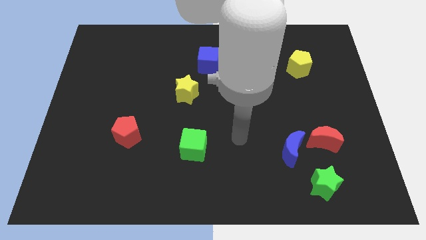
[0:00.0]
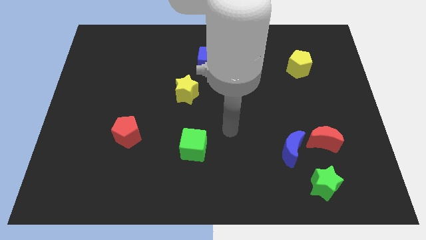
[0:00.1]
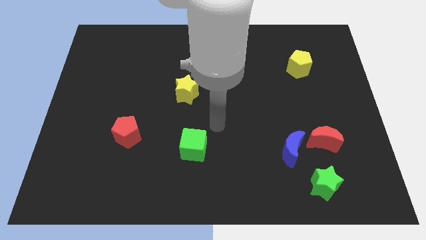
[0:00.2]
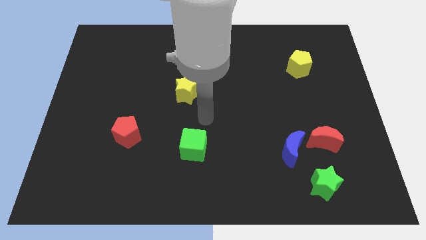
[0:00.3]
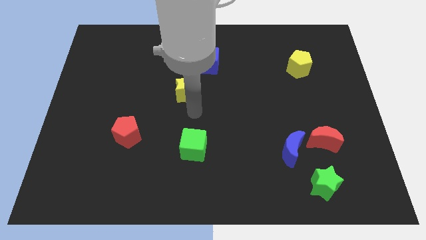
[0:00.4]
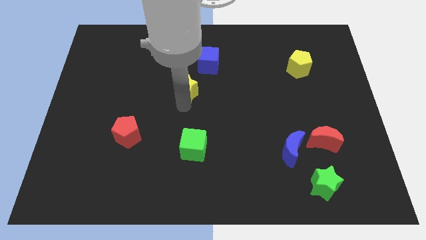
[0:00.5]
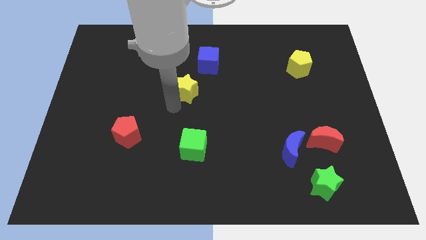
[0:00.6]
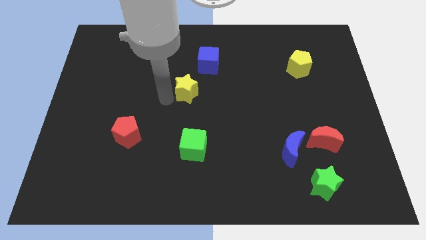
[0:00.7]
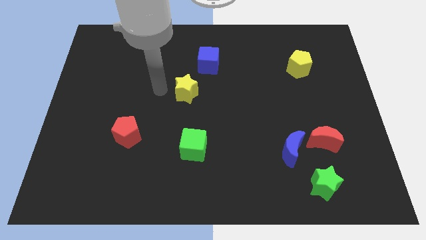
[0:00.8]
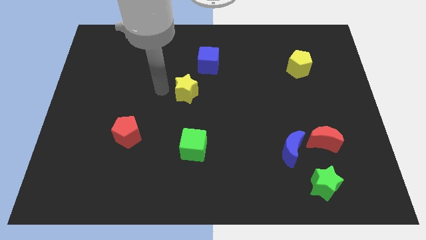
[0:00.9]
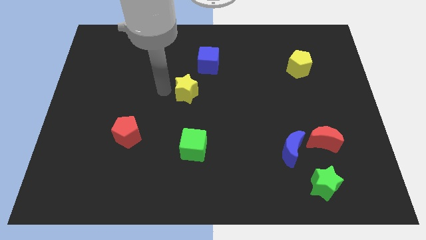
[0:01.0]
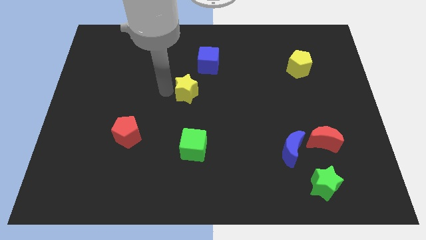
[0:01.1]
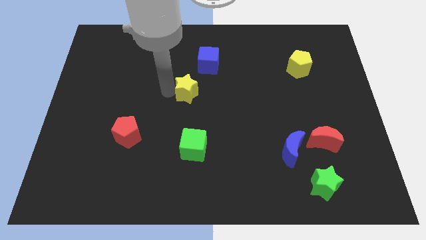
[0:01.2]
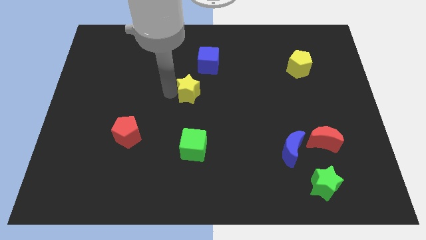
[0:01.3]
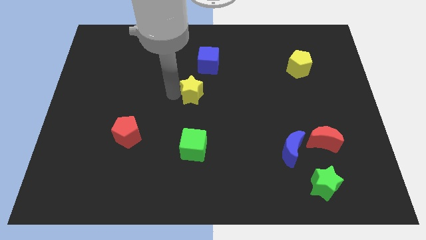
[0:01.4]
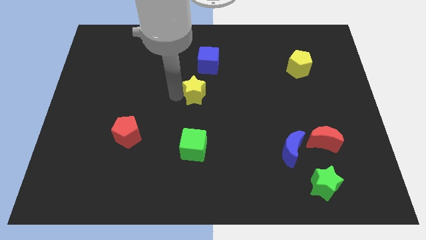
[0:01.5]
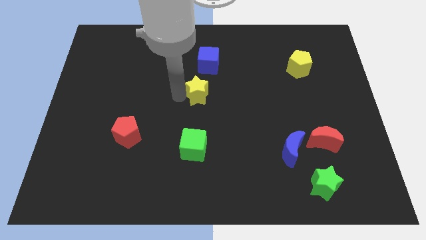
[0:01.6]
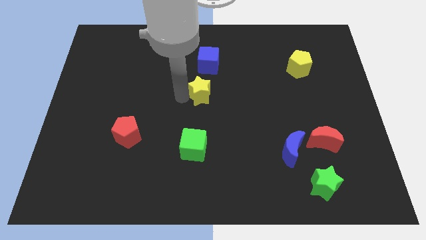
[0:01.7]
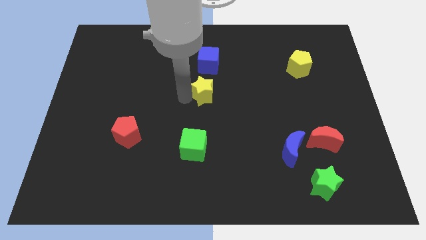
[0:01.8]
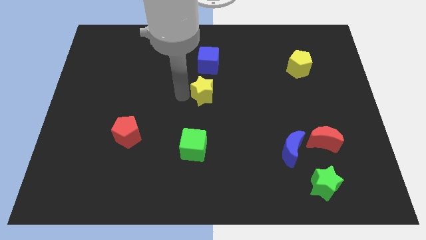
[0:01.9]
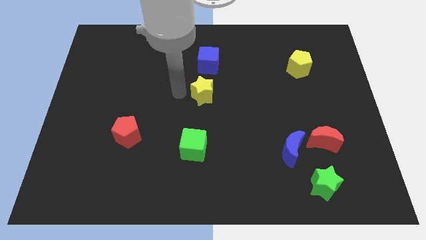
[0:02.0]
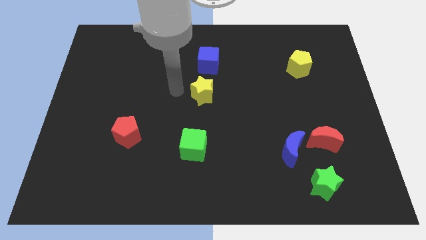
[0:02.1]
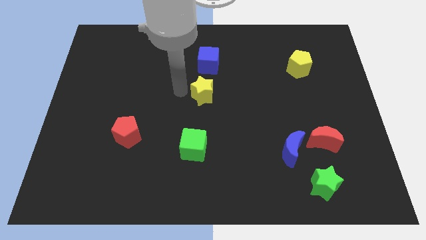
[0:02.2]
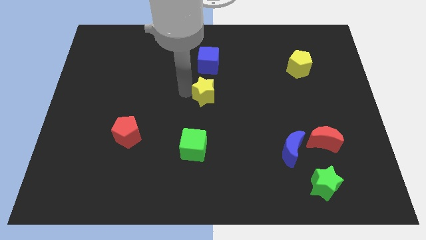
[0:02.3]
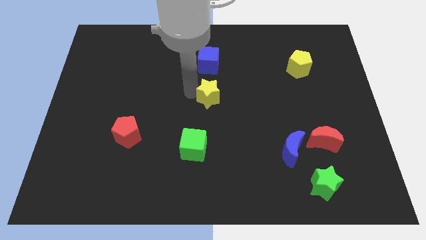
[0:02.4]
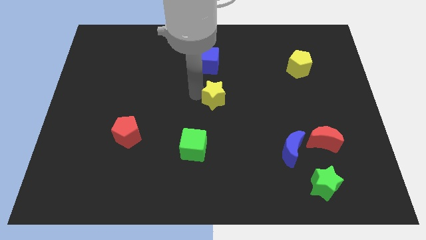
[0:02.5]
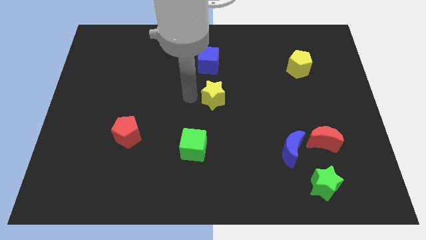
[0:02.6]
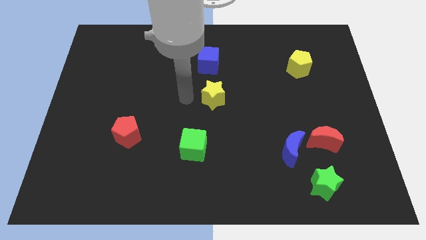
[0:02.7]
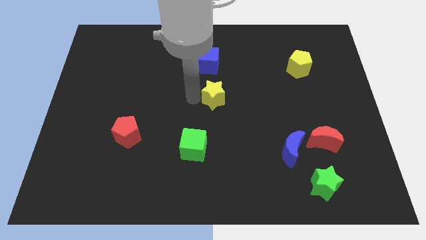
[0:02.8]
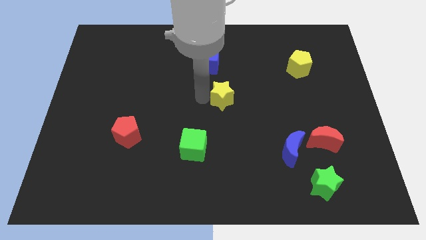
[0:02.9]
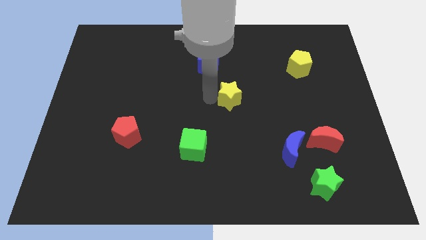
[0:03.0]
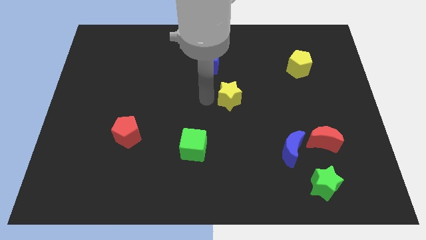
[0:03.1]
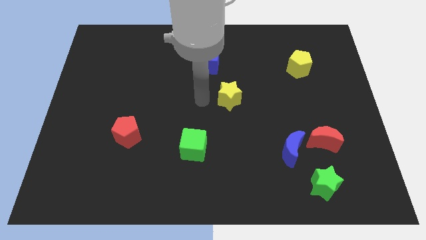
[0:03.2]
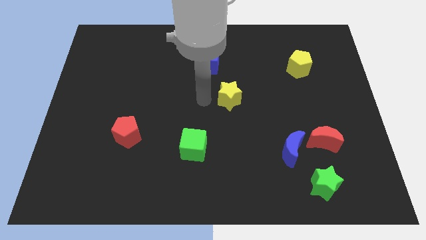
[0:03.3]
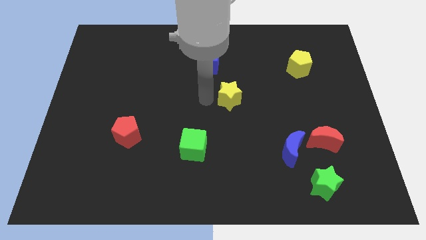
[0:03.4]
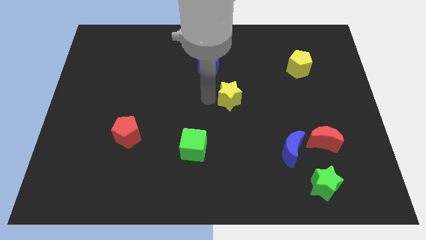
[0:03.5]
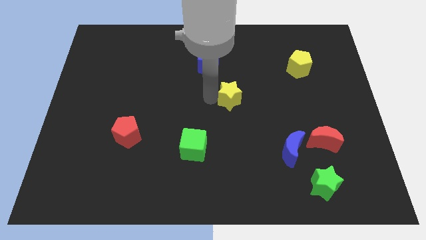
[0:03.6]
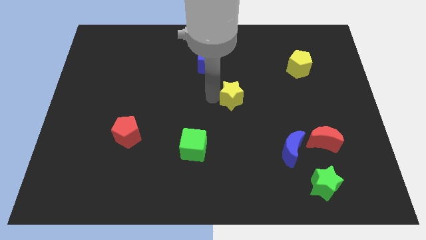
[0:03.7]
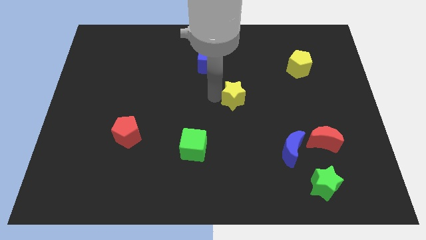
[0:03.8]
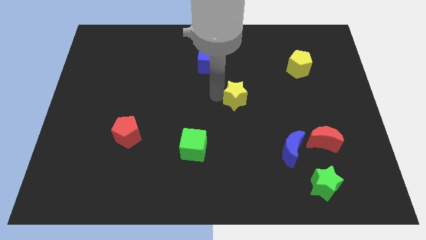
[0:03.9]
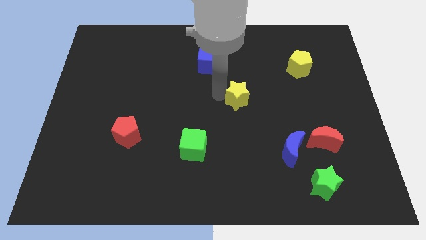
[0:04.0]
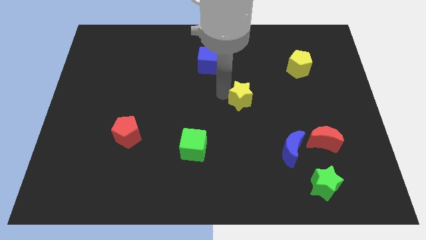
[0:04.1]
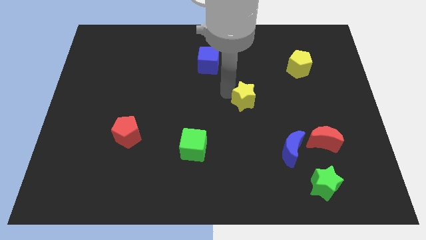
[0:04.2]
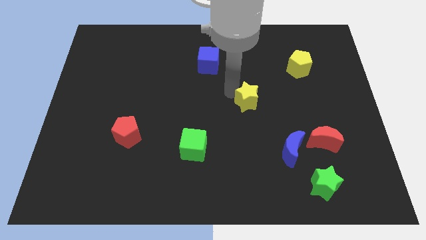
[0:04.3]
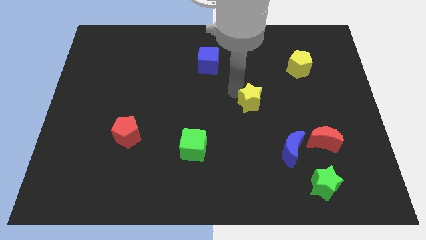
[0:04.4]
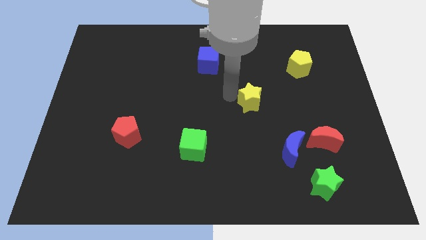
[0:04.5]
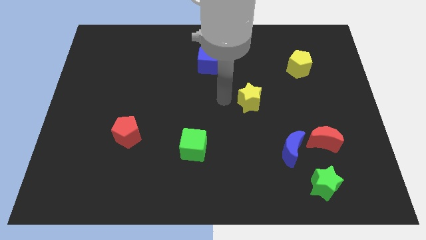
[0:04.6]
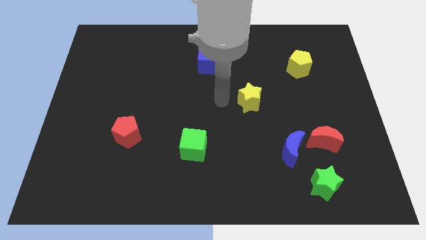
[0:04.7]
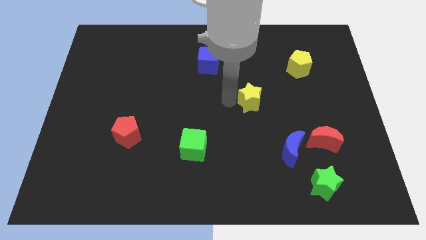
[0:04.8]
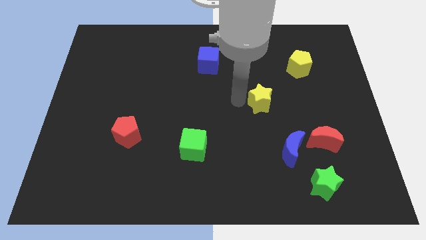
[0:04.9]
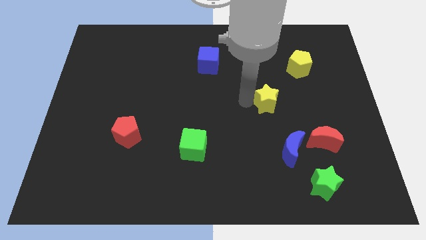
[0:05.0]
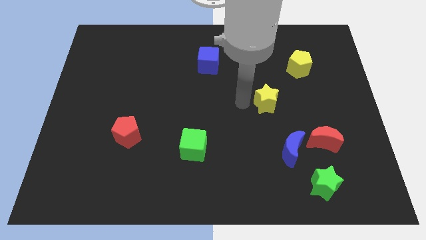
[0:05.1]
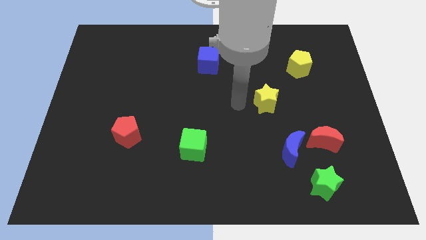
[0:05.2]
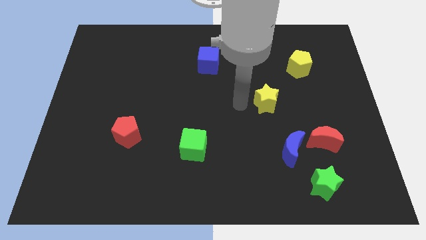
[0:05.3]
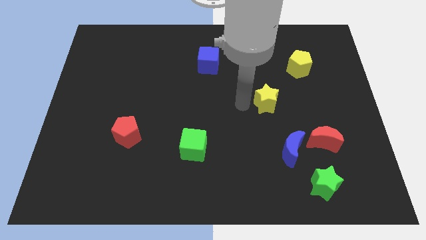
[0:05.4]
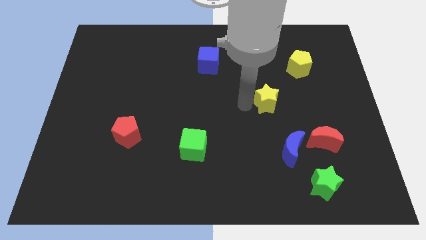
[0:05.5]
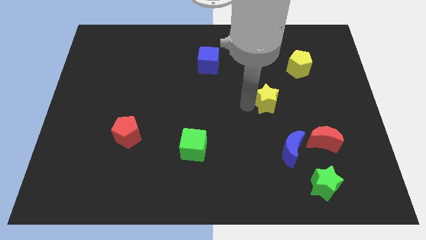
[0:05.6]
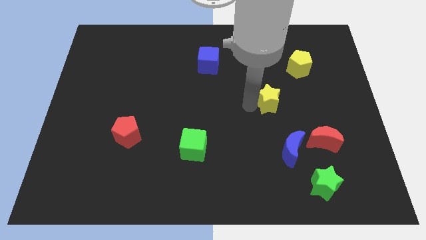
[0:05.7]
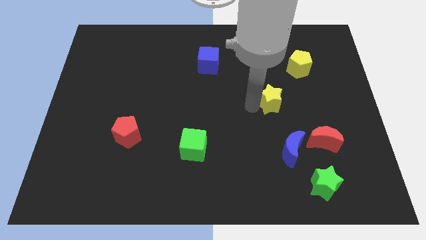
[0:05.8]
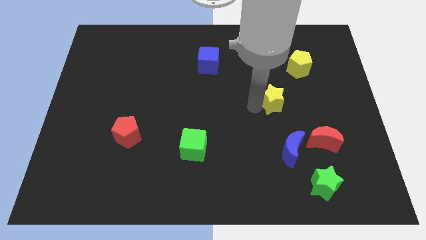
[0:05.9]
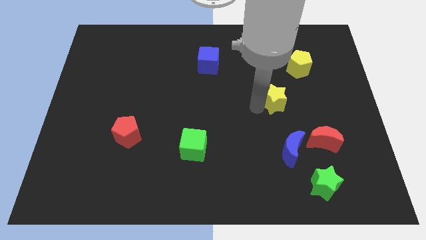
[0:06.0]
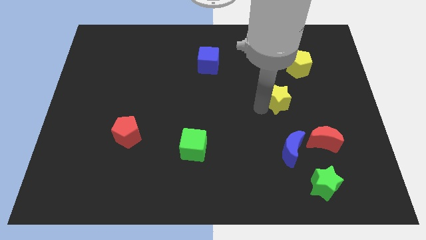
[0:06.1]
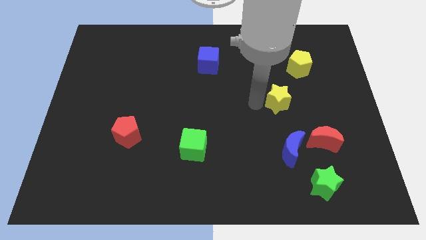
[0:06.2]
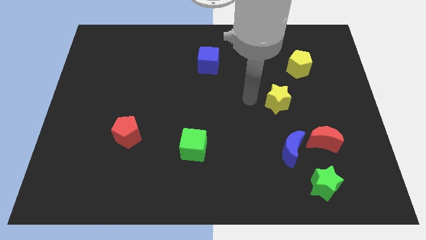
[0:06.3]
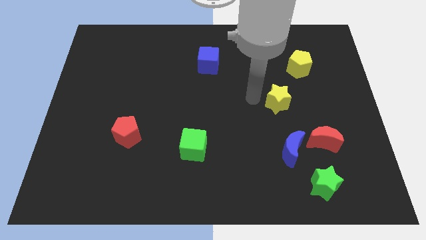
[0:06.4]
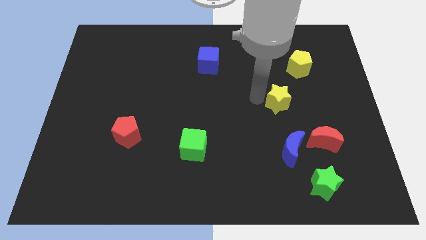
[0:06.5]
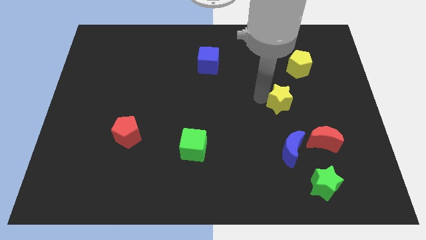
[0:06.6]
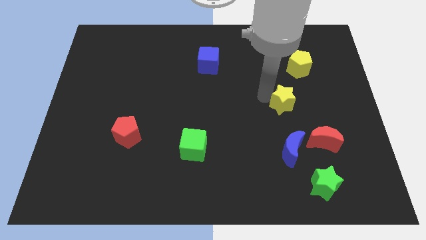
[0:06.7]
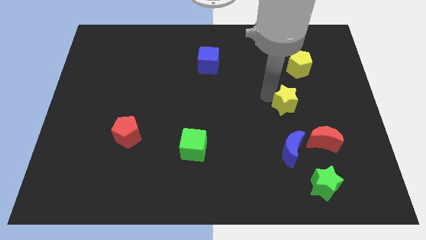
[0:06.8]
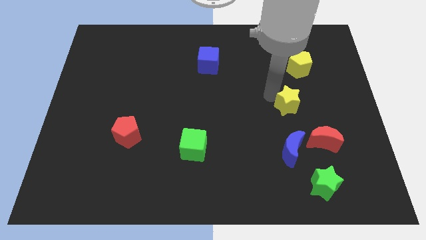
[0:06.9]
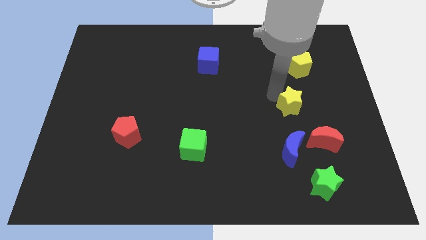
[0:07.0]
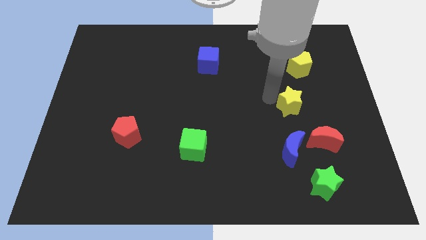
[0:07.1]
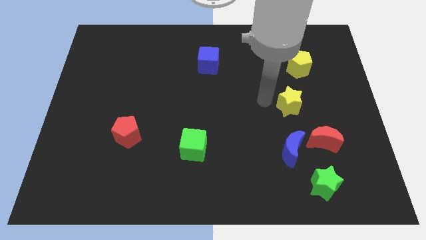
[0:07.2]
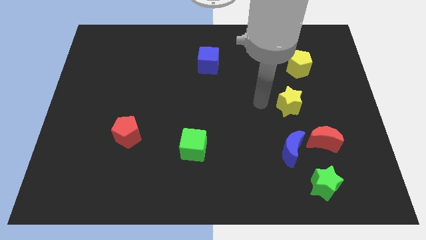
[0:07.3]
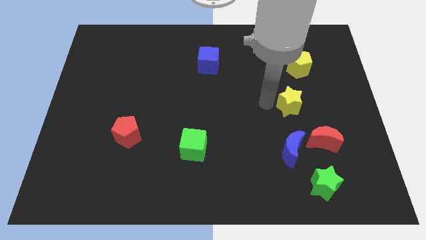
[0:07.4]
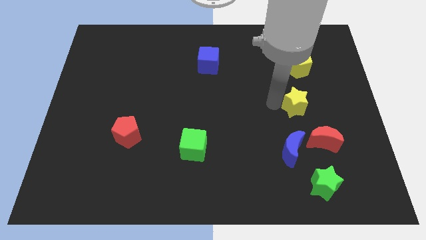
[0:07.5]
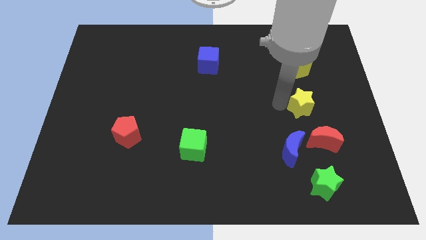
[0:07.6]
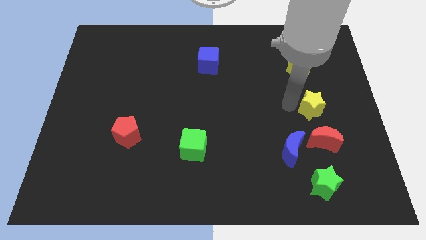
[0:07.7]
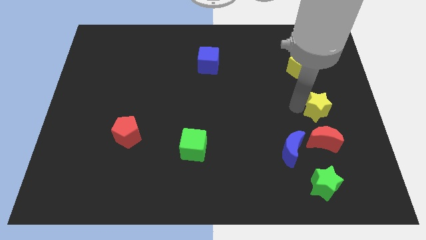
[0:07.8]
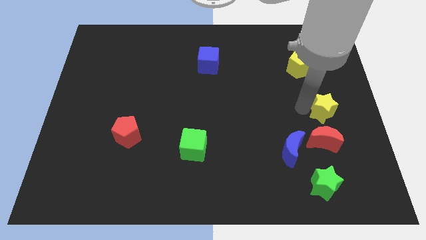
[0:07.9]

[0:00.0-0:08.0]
put the yellow star to the right side
